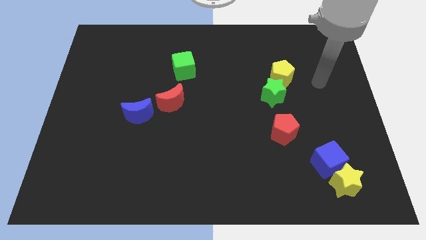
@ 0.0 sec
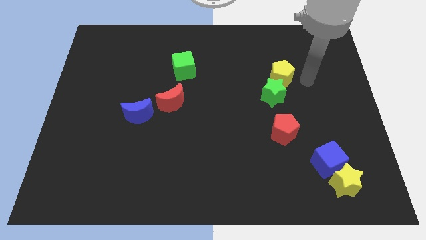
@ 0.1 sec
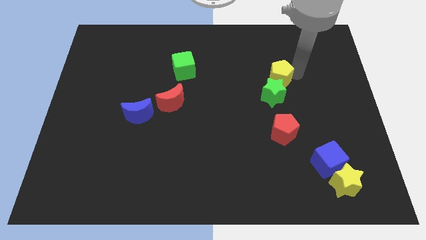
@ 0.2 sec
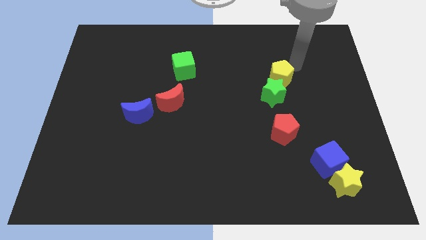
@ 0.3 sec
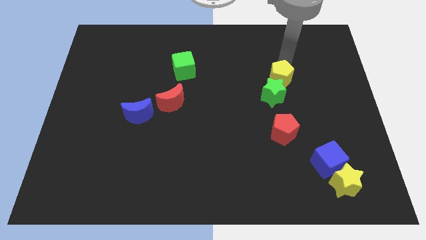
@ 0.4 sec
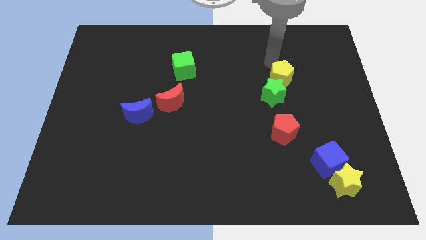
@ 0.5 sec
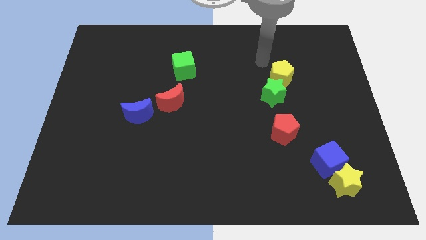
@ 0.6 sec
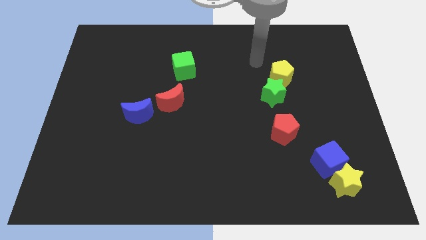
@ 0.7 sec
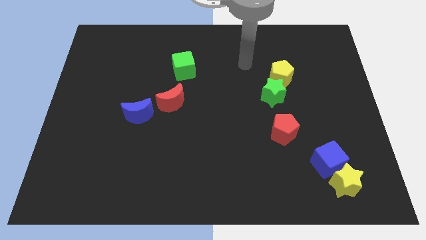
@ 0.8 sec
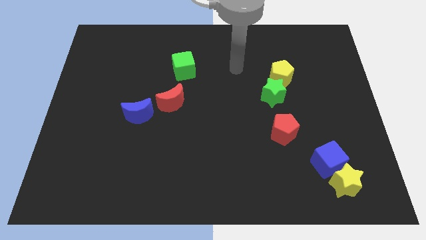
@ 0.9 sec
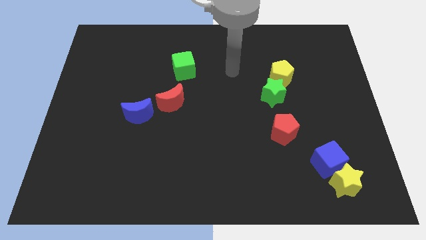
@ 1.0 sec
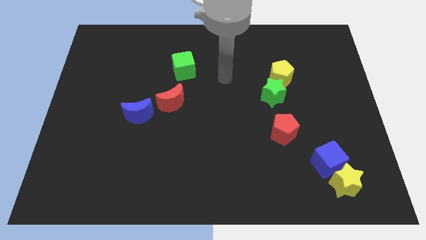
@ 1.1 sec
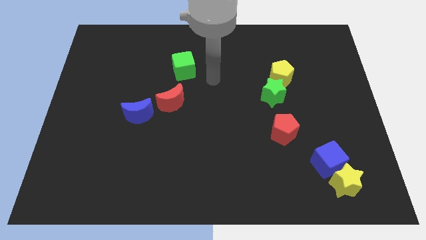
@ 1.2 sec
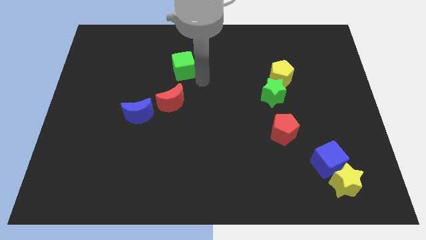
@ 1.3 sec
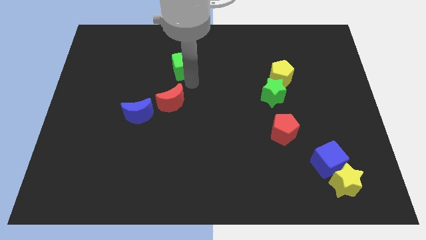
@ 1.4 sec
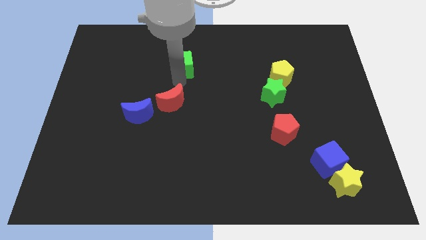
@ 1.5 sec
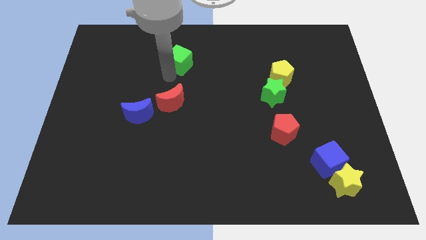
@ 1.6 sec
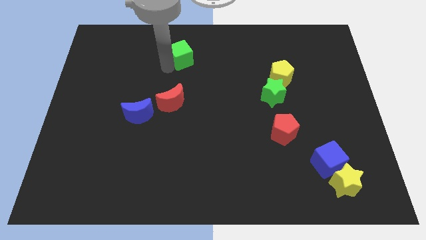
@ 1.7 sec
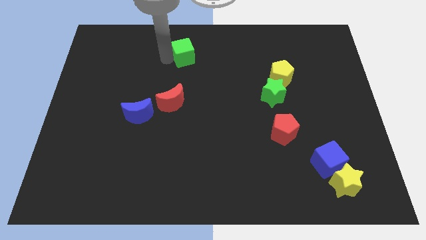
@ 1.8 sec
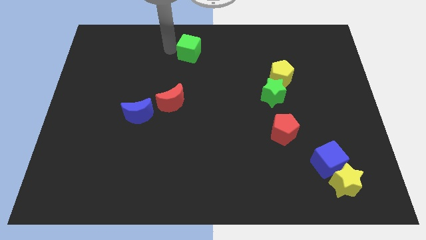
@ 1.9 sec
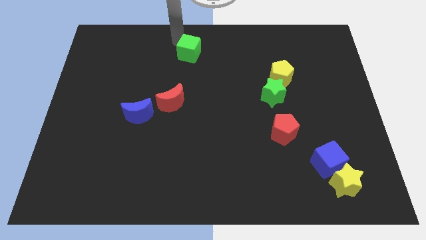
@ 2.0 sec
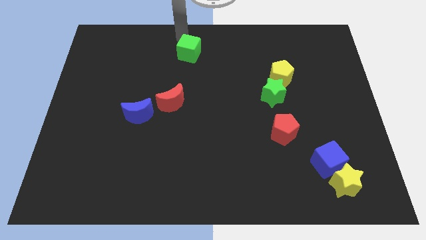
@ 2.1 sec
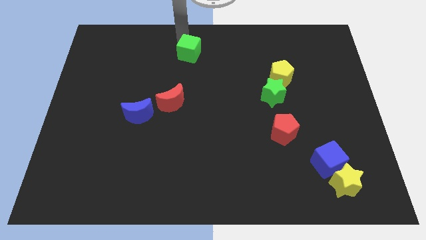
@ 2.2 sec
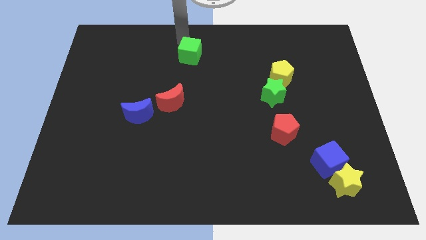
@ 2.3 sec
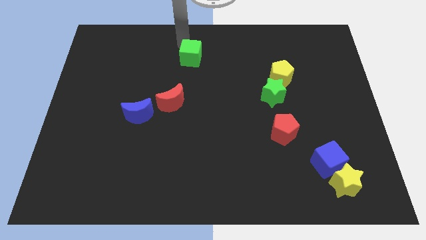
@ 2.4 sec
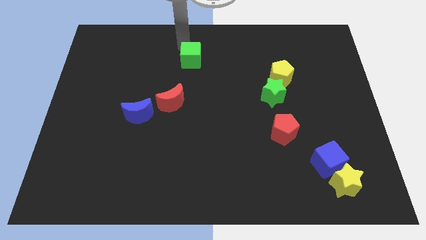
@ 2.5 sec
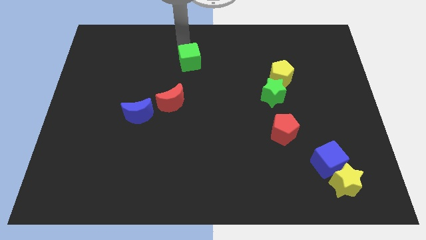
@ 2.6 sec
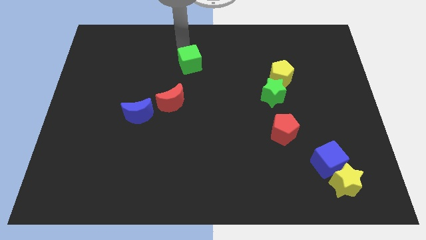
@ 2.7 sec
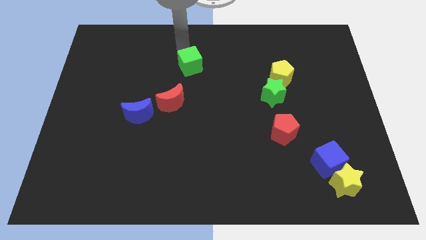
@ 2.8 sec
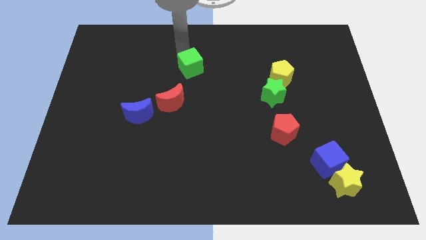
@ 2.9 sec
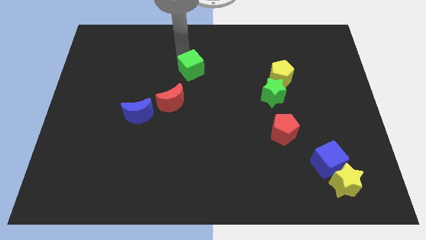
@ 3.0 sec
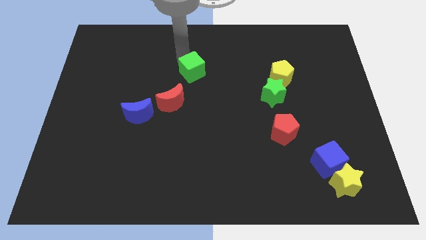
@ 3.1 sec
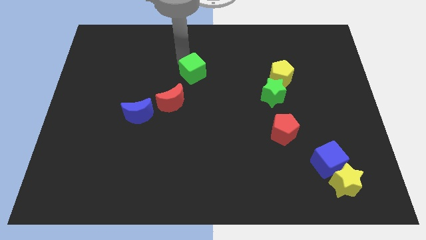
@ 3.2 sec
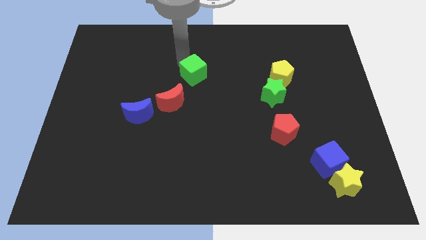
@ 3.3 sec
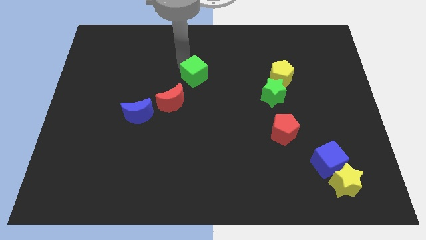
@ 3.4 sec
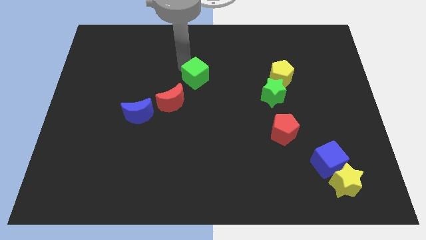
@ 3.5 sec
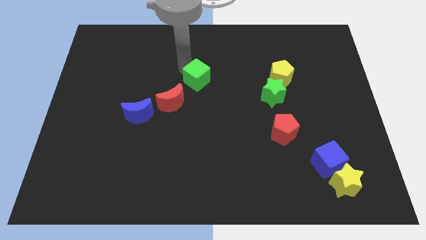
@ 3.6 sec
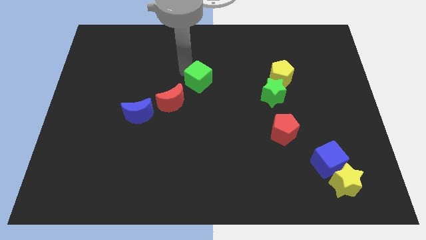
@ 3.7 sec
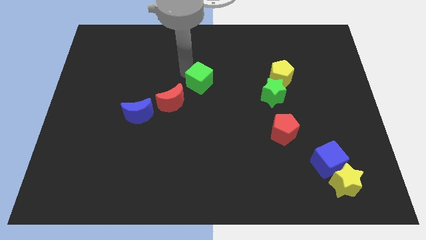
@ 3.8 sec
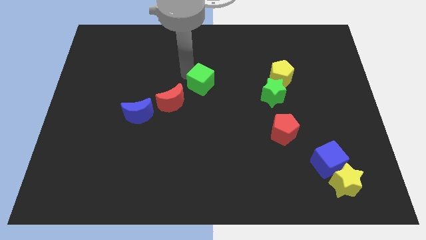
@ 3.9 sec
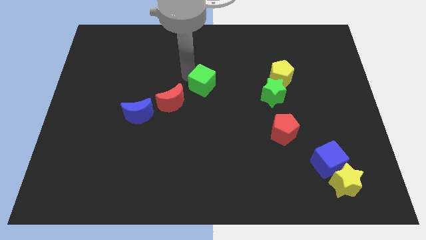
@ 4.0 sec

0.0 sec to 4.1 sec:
slightly move the green cube downwards and right

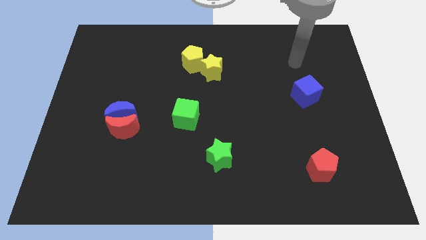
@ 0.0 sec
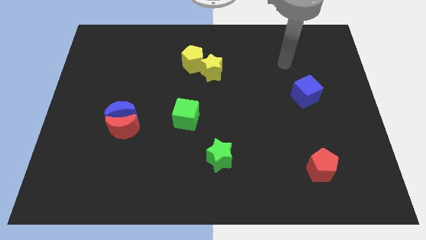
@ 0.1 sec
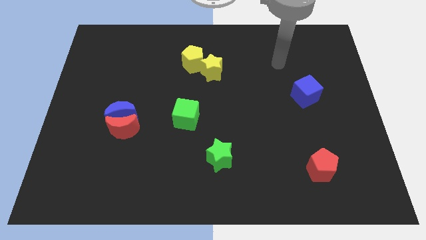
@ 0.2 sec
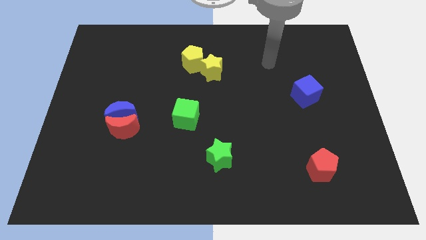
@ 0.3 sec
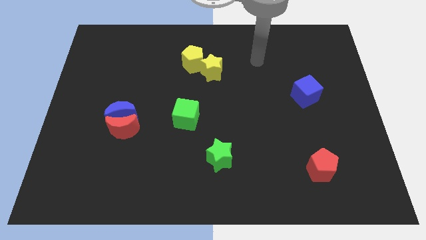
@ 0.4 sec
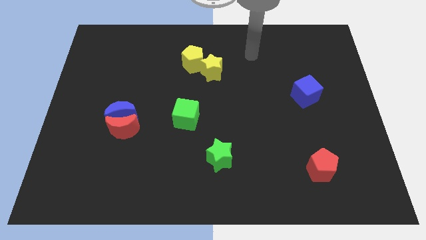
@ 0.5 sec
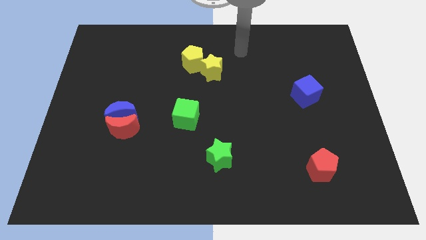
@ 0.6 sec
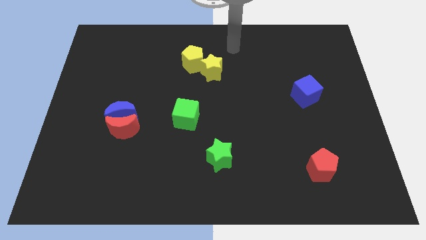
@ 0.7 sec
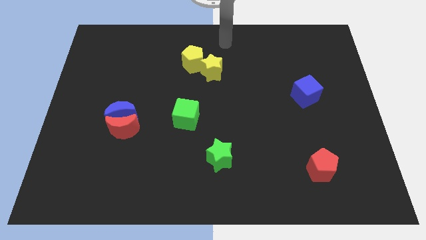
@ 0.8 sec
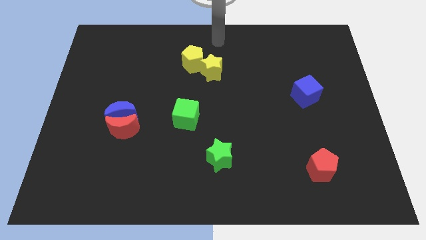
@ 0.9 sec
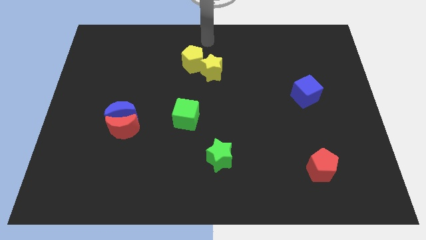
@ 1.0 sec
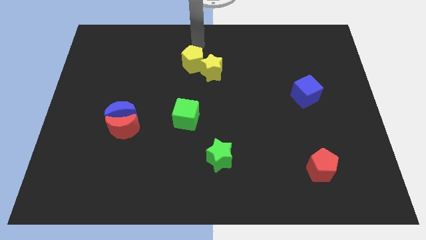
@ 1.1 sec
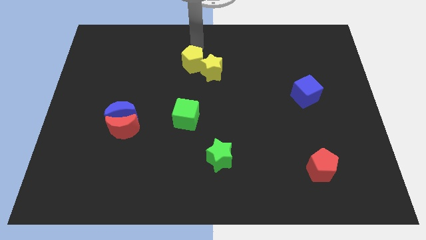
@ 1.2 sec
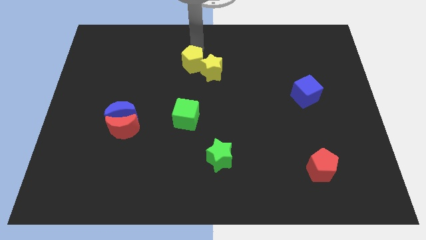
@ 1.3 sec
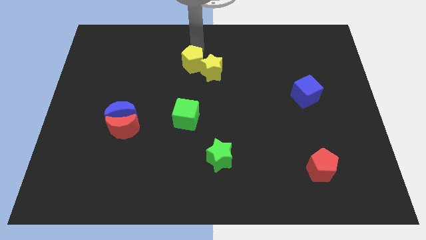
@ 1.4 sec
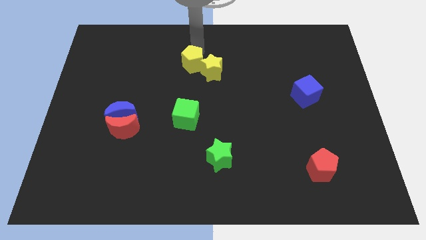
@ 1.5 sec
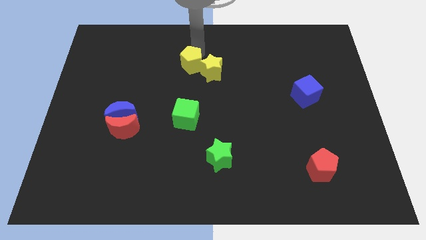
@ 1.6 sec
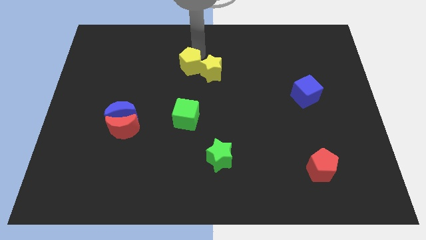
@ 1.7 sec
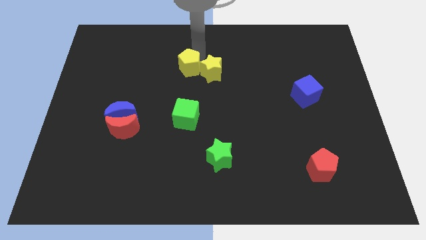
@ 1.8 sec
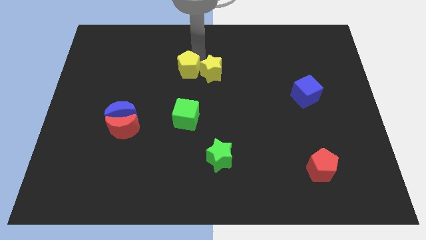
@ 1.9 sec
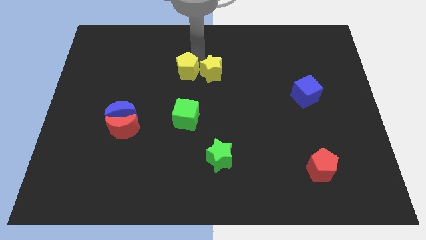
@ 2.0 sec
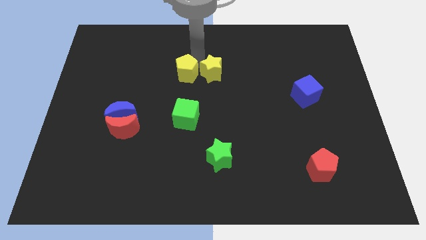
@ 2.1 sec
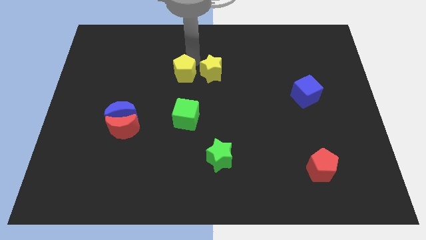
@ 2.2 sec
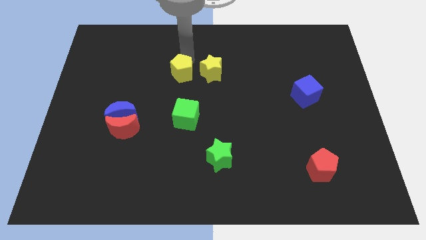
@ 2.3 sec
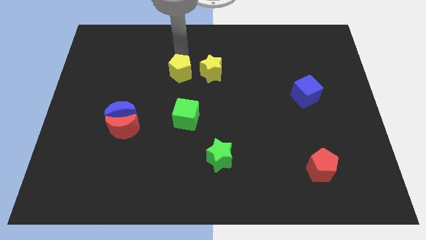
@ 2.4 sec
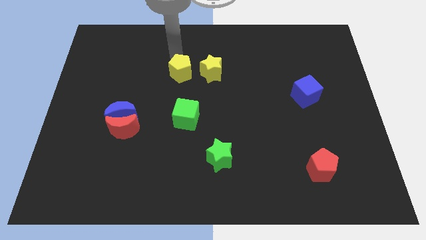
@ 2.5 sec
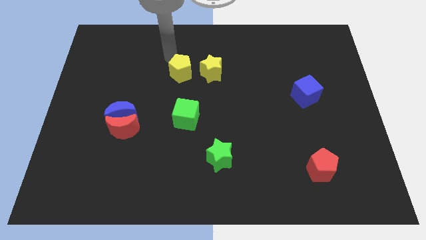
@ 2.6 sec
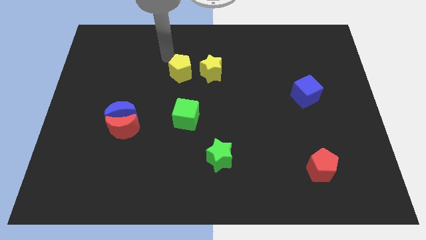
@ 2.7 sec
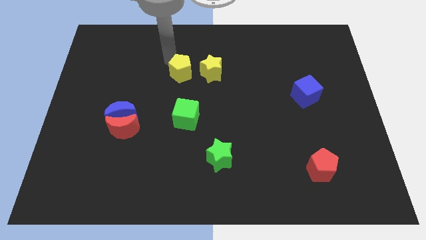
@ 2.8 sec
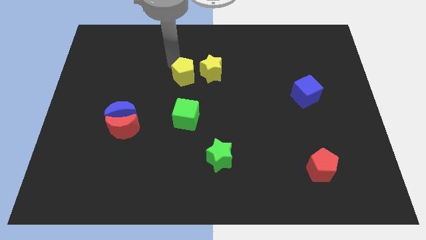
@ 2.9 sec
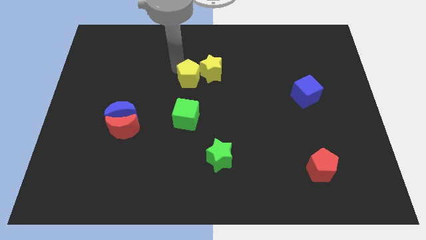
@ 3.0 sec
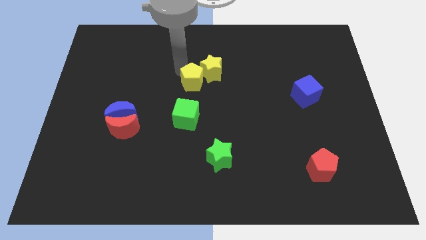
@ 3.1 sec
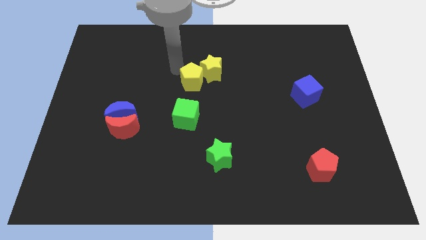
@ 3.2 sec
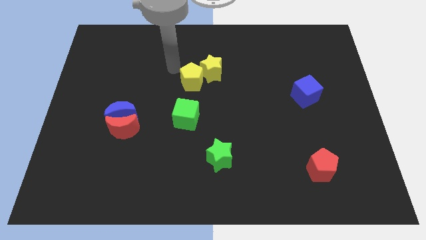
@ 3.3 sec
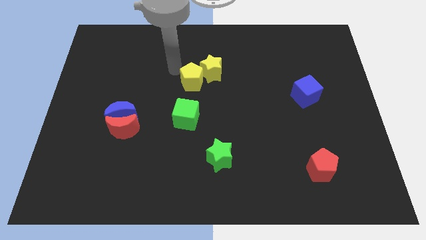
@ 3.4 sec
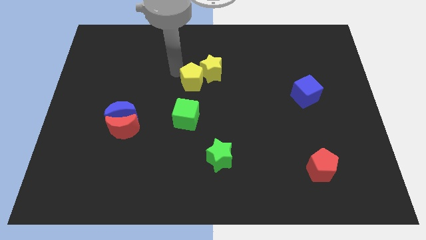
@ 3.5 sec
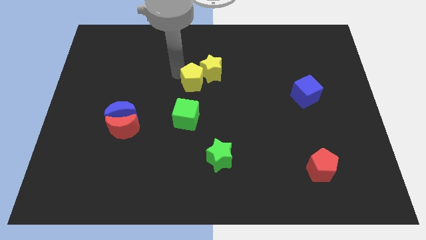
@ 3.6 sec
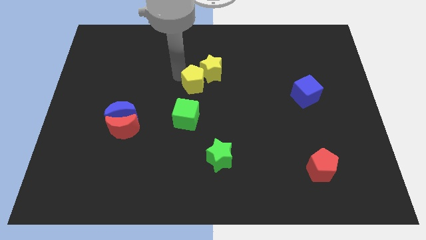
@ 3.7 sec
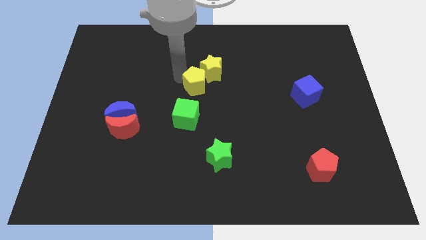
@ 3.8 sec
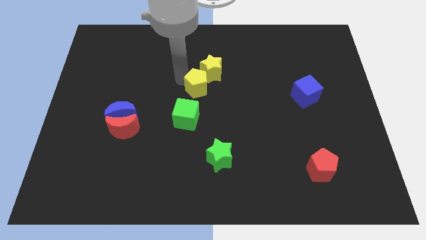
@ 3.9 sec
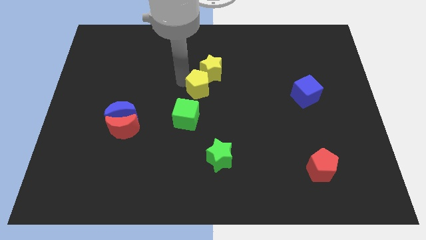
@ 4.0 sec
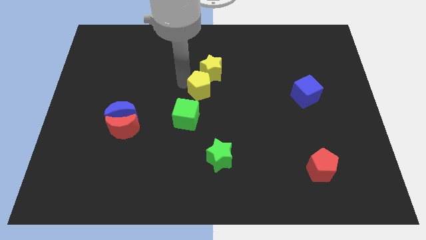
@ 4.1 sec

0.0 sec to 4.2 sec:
slide the yellow pentagon down and to the right a little bit
